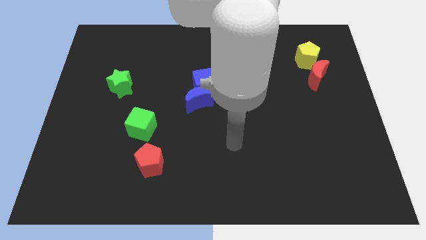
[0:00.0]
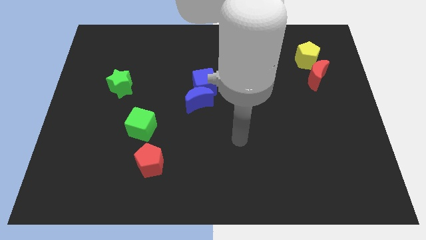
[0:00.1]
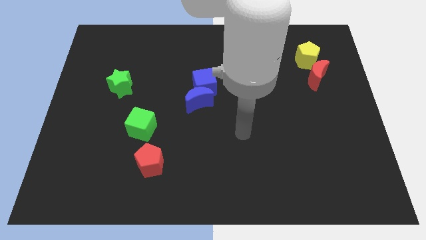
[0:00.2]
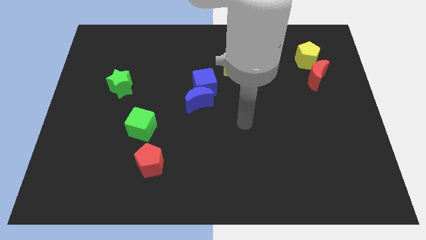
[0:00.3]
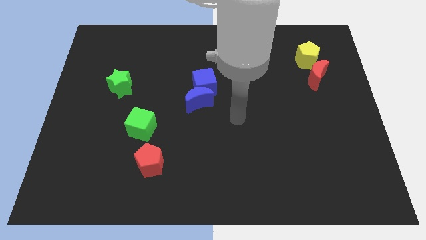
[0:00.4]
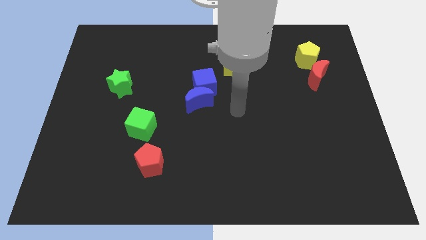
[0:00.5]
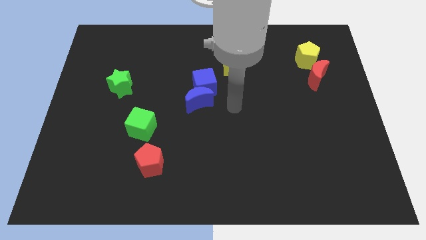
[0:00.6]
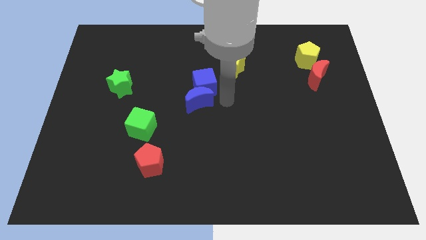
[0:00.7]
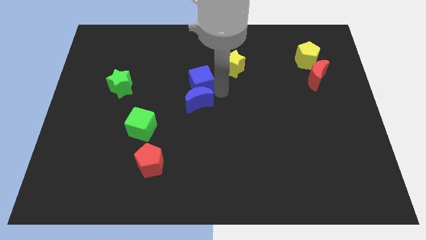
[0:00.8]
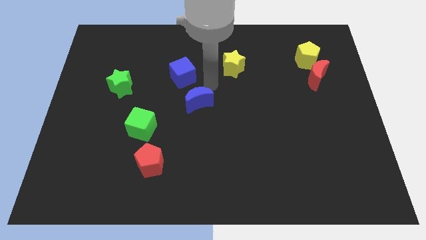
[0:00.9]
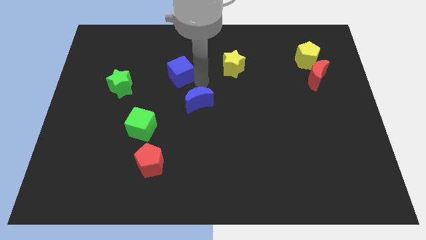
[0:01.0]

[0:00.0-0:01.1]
move the blue moon away from the blue cube

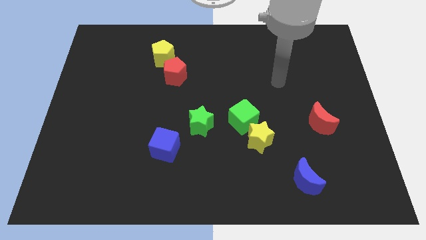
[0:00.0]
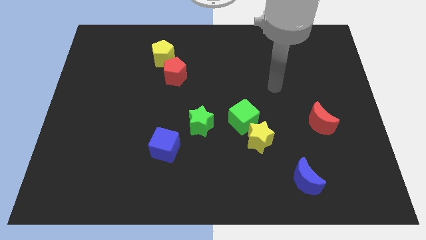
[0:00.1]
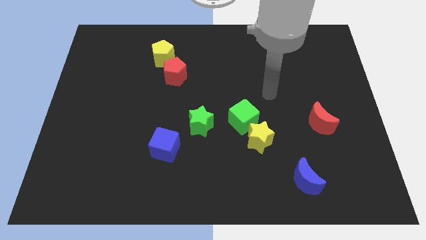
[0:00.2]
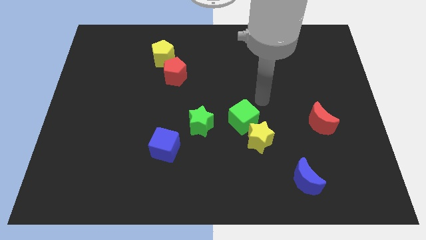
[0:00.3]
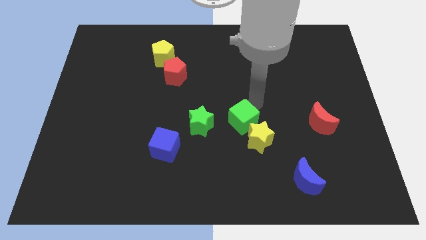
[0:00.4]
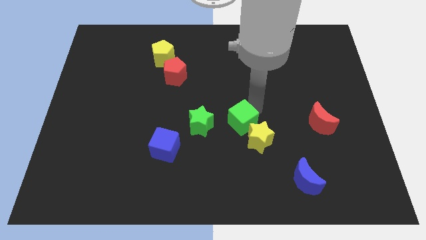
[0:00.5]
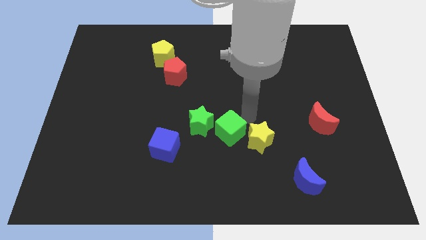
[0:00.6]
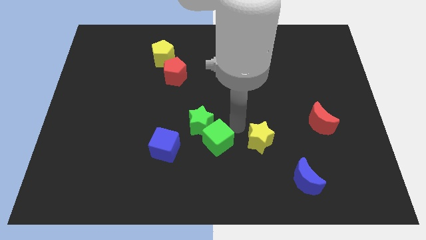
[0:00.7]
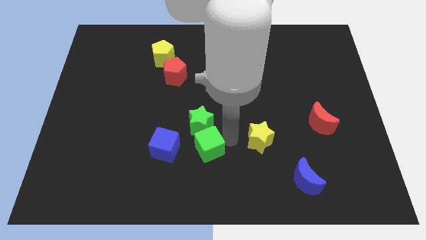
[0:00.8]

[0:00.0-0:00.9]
pull the yellow star apart from the green cube

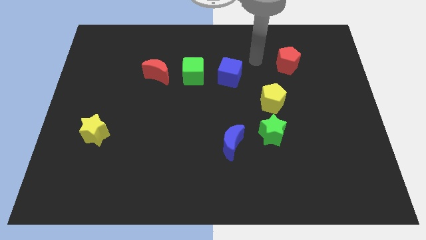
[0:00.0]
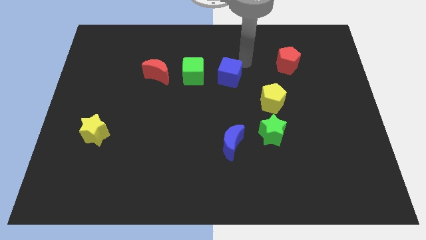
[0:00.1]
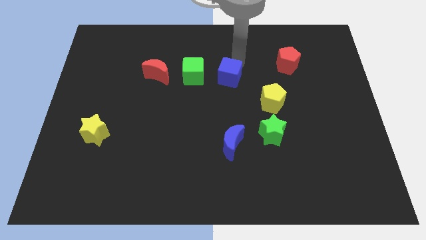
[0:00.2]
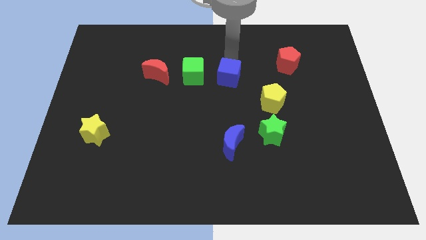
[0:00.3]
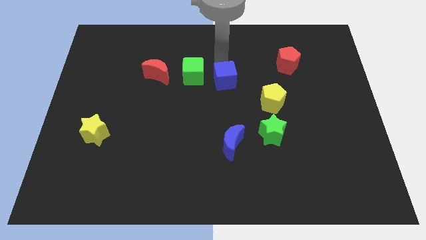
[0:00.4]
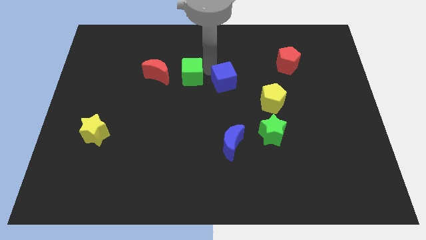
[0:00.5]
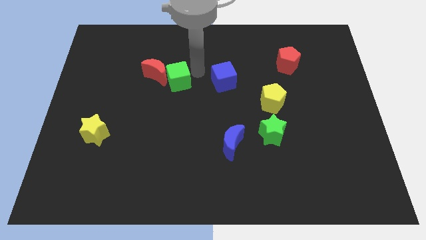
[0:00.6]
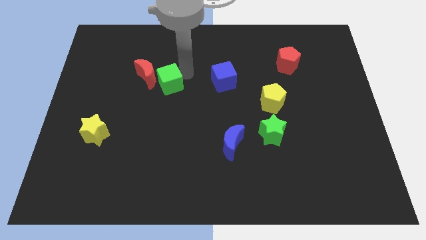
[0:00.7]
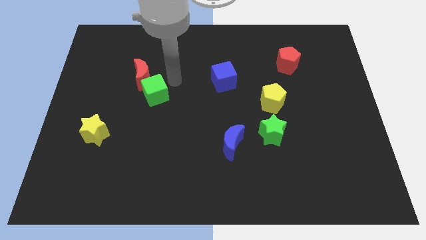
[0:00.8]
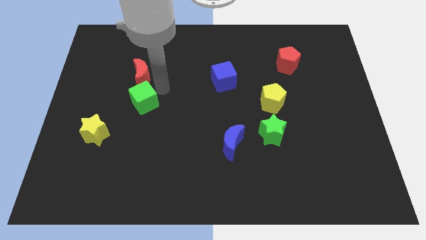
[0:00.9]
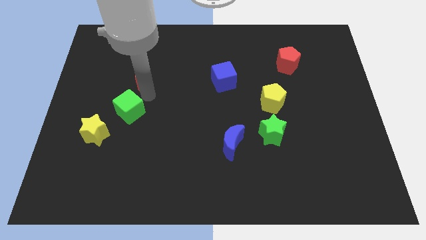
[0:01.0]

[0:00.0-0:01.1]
pull the red moon apart from the green cube

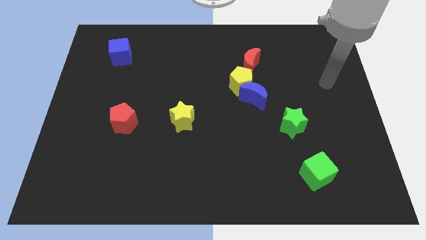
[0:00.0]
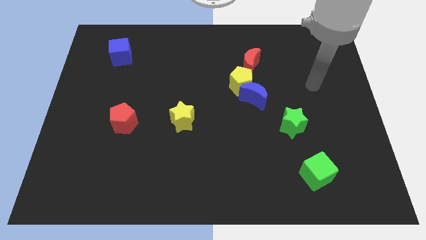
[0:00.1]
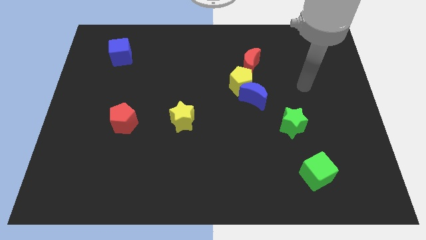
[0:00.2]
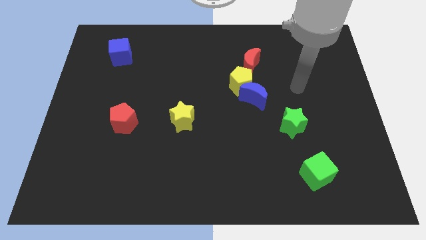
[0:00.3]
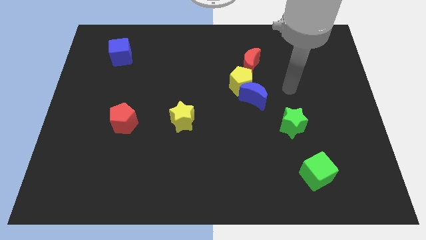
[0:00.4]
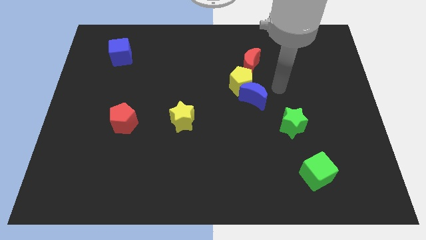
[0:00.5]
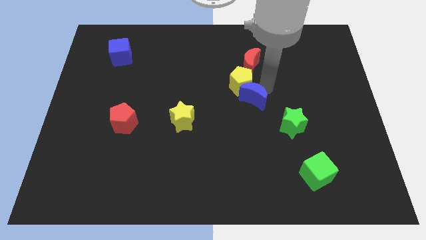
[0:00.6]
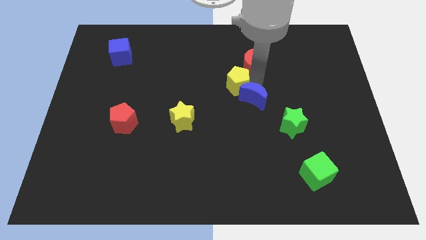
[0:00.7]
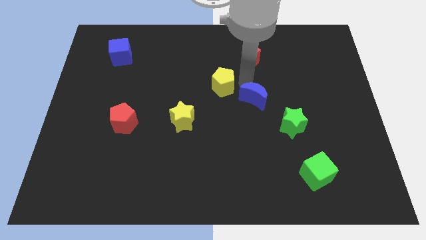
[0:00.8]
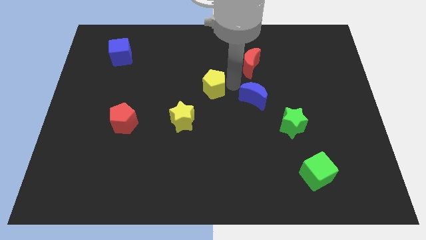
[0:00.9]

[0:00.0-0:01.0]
move the blue moon away from the yellow pentagon

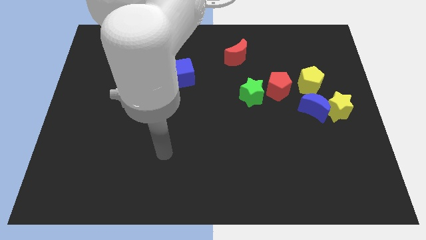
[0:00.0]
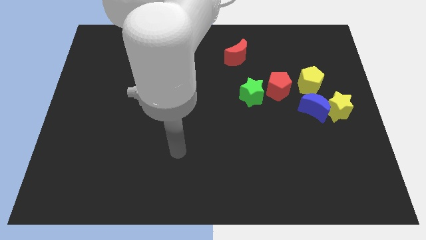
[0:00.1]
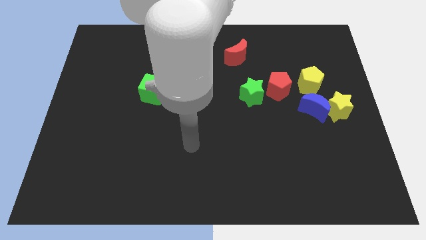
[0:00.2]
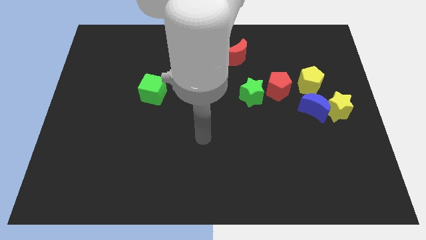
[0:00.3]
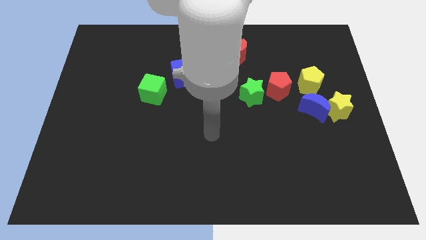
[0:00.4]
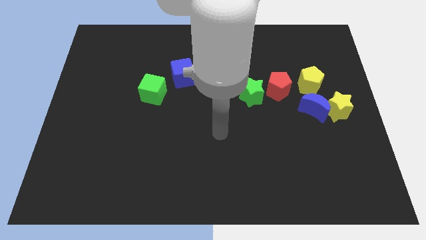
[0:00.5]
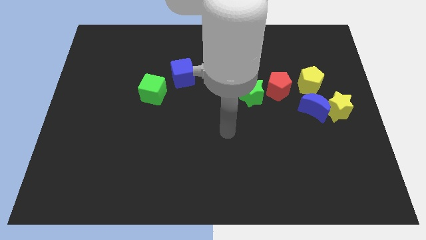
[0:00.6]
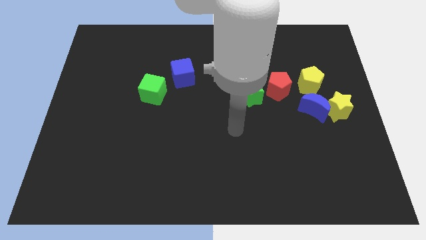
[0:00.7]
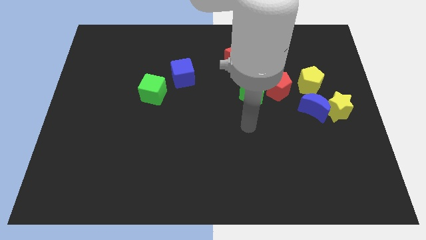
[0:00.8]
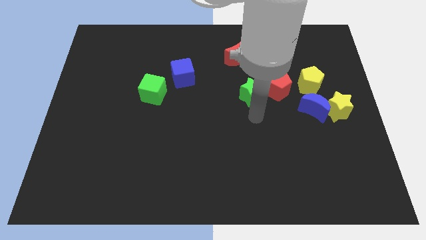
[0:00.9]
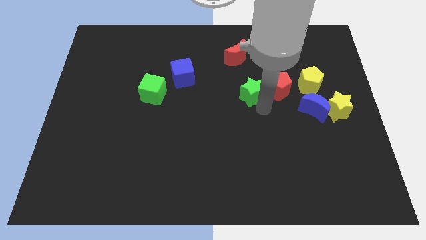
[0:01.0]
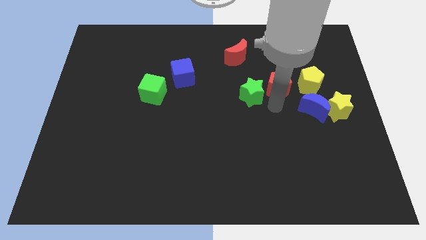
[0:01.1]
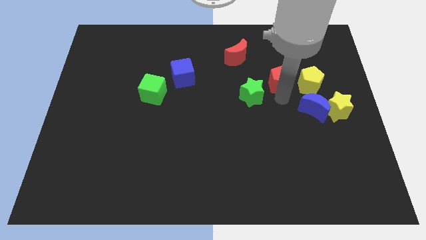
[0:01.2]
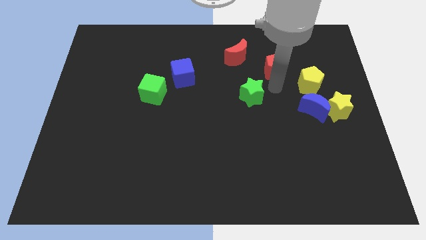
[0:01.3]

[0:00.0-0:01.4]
pull the green star apart from the red pentagon

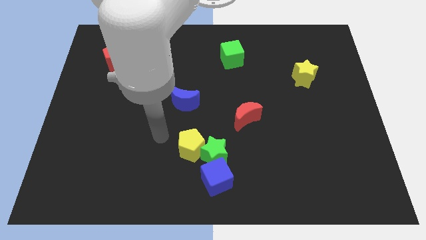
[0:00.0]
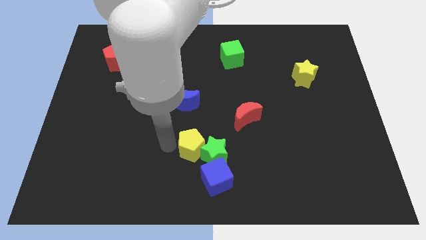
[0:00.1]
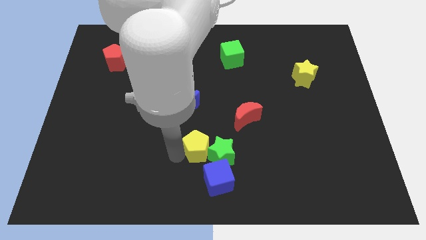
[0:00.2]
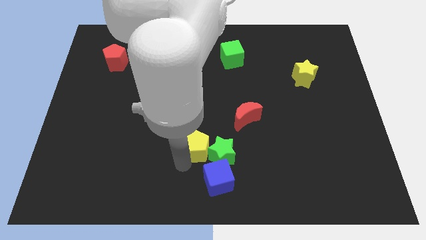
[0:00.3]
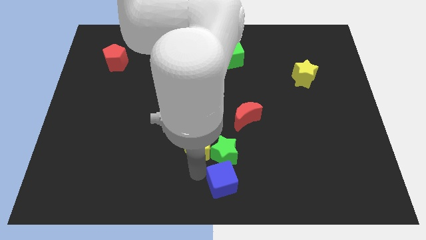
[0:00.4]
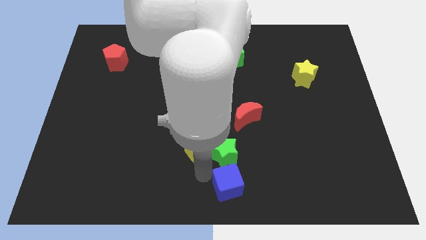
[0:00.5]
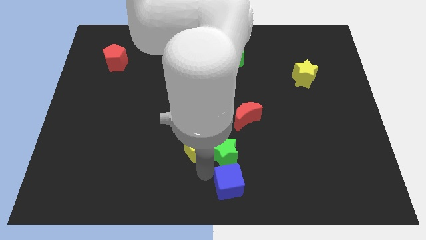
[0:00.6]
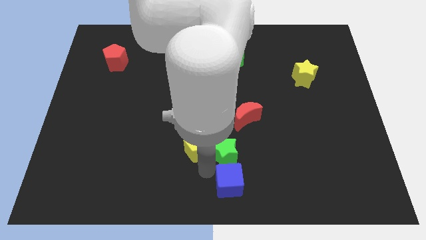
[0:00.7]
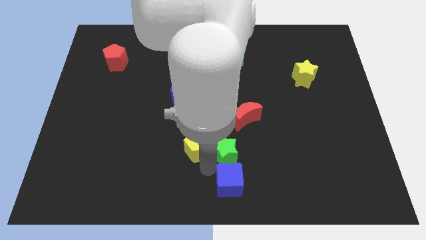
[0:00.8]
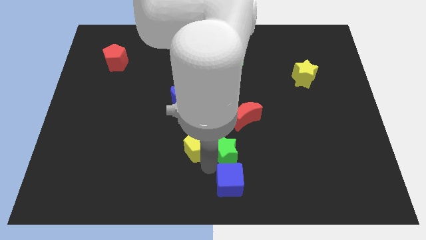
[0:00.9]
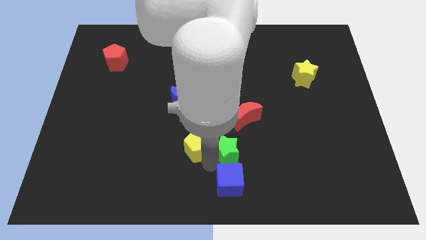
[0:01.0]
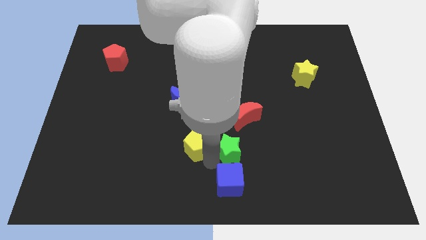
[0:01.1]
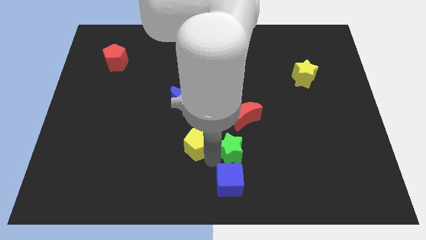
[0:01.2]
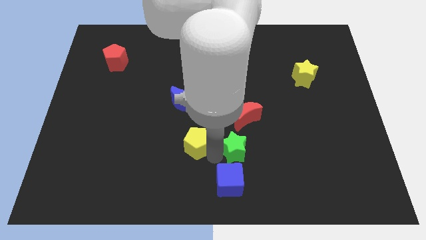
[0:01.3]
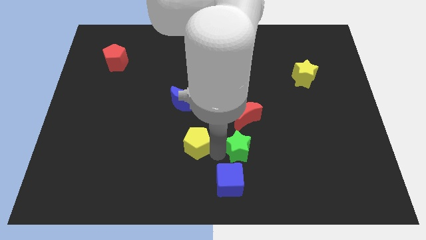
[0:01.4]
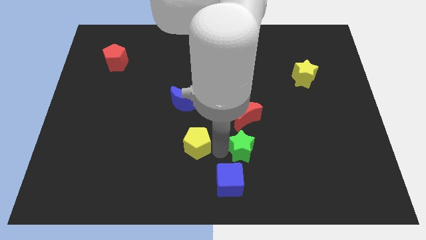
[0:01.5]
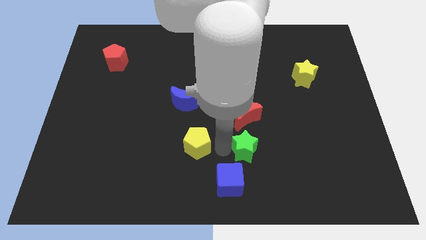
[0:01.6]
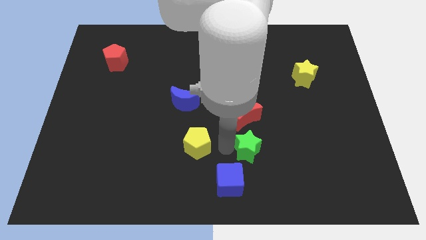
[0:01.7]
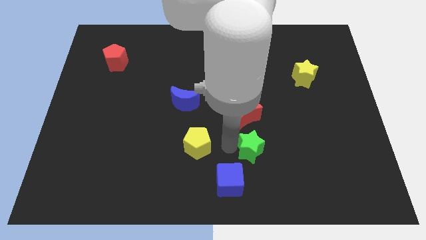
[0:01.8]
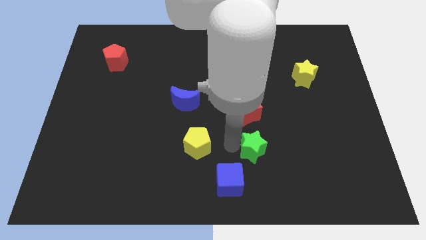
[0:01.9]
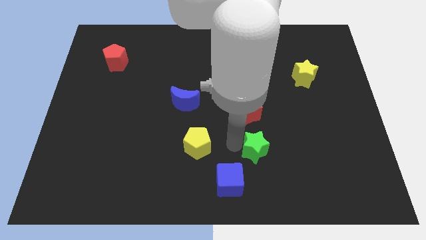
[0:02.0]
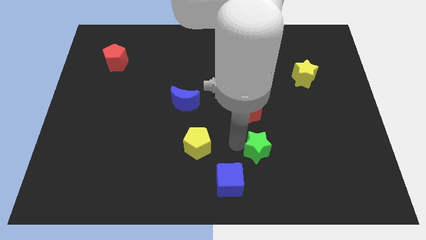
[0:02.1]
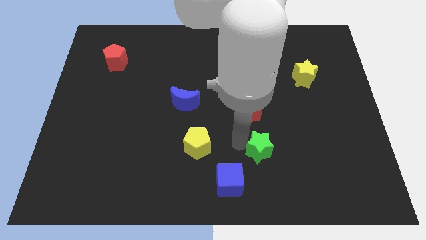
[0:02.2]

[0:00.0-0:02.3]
move the green star away from the yellow pentagon and blue cube

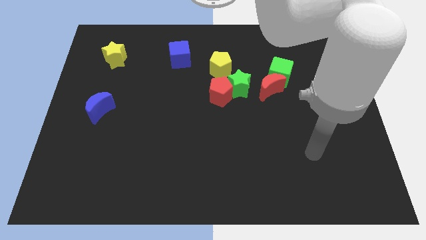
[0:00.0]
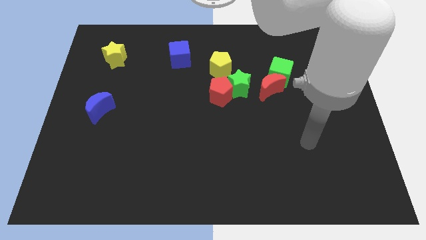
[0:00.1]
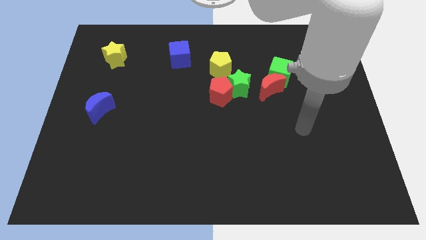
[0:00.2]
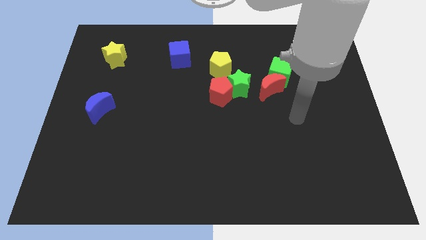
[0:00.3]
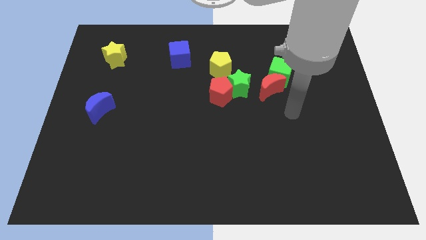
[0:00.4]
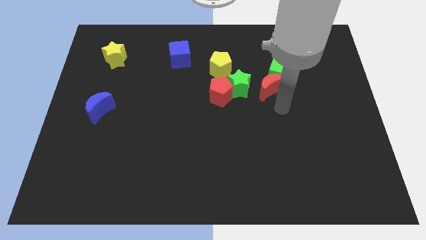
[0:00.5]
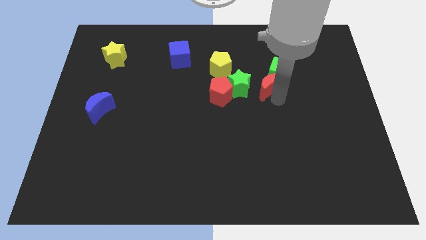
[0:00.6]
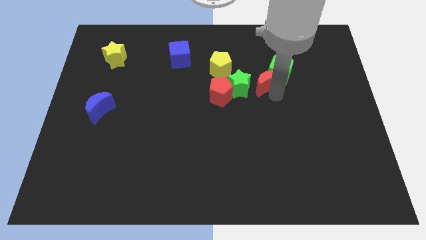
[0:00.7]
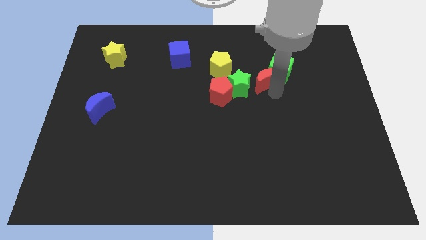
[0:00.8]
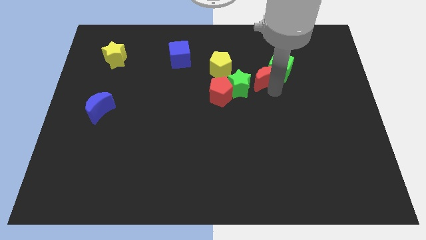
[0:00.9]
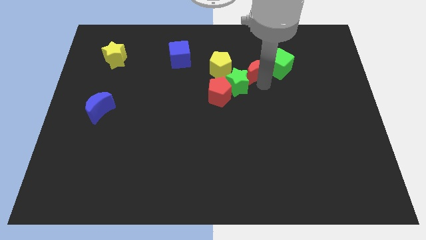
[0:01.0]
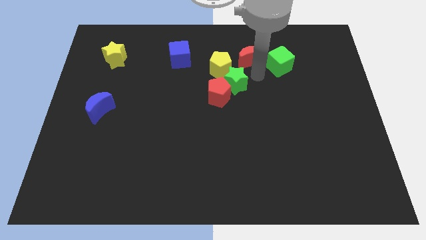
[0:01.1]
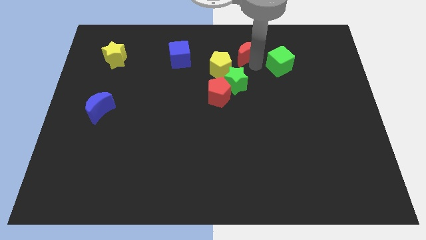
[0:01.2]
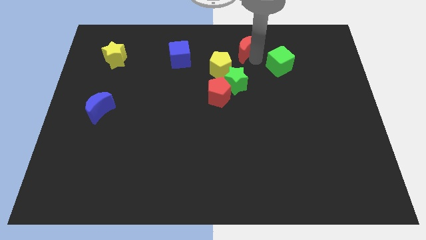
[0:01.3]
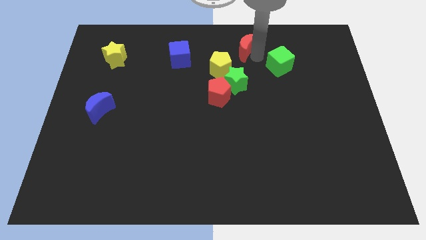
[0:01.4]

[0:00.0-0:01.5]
separate the green cube from the red moon
